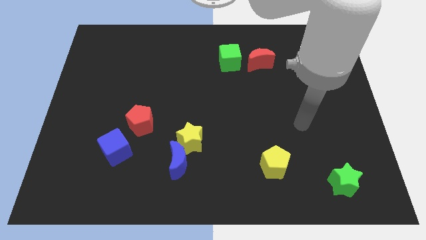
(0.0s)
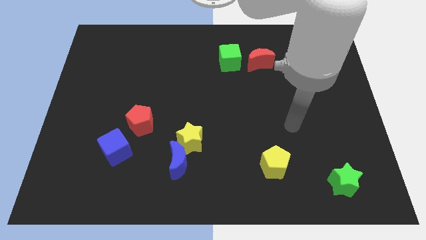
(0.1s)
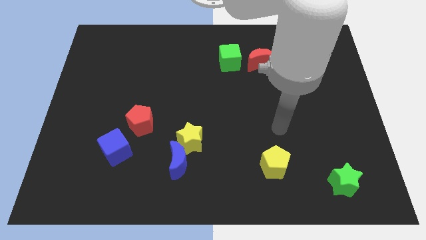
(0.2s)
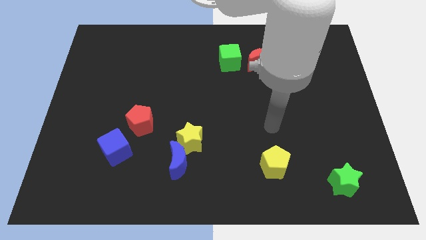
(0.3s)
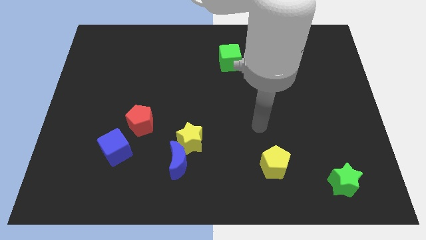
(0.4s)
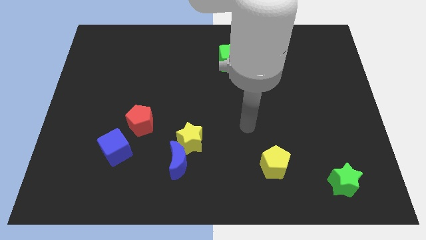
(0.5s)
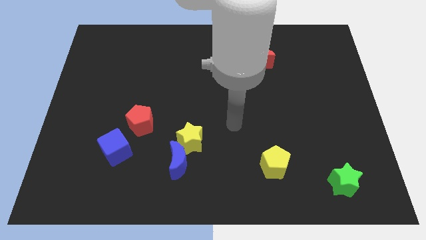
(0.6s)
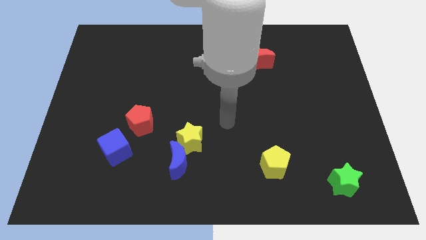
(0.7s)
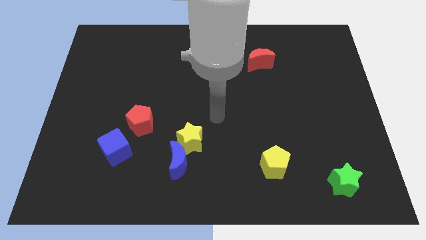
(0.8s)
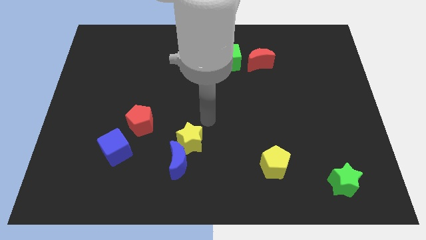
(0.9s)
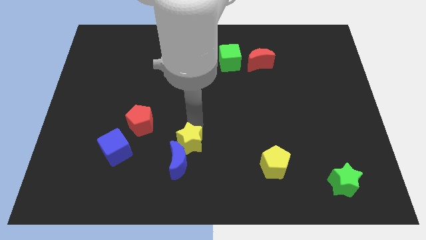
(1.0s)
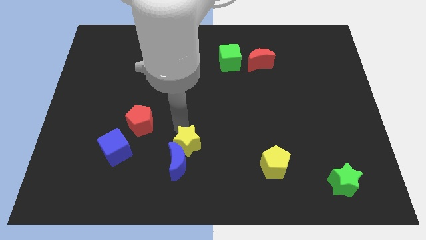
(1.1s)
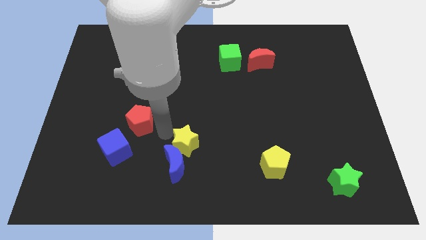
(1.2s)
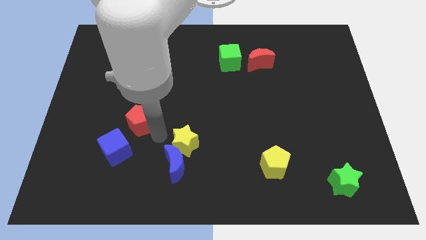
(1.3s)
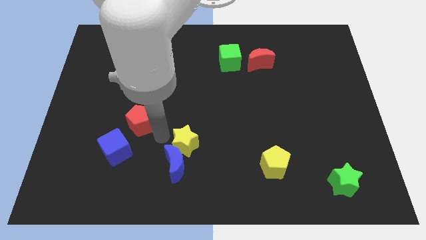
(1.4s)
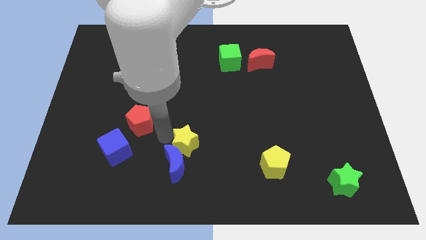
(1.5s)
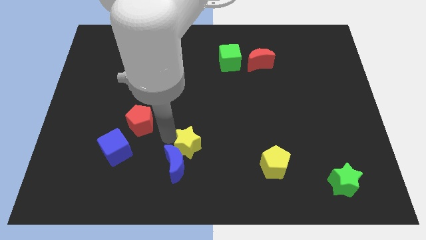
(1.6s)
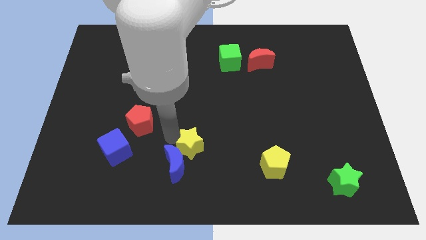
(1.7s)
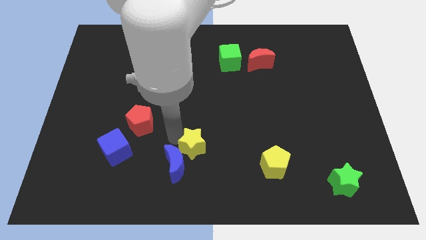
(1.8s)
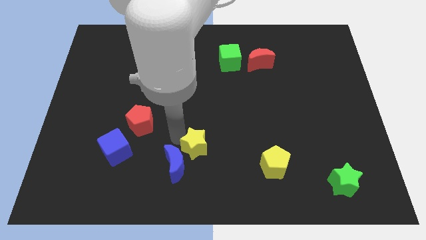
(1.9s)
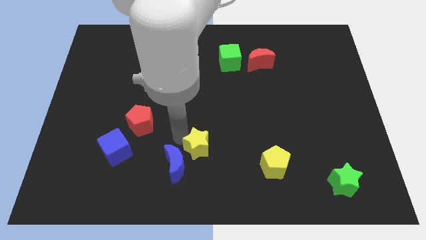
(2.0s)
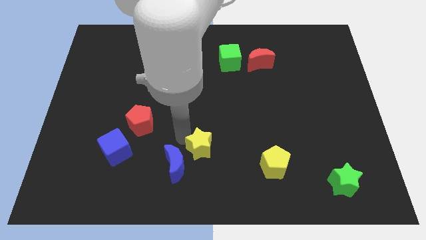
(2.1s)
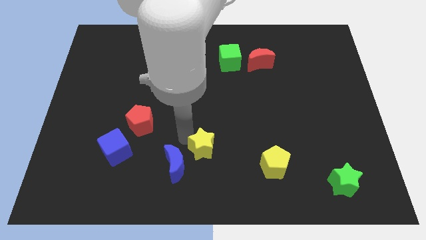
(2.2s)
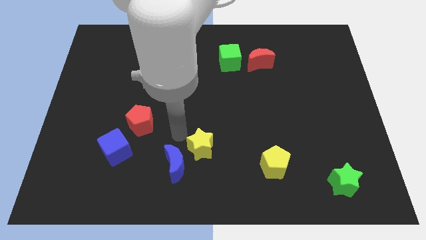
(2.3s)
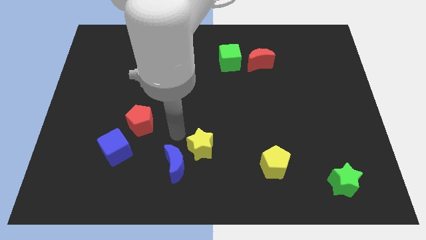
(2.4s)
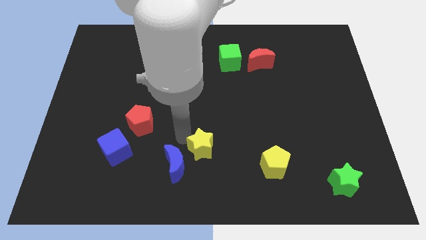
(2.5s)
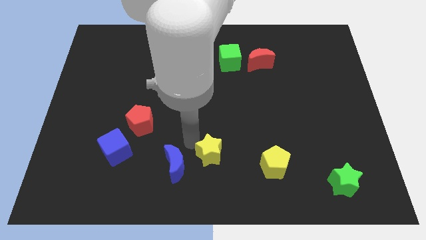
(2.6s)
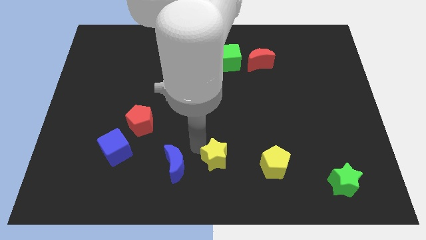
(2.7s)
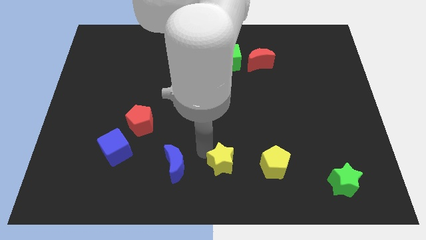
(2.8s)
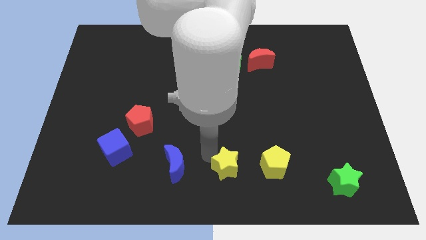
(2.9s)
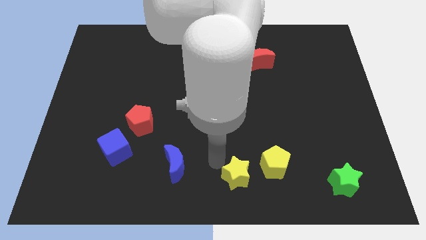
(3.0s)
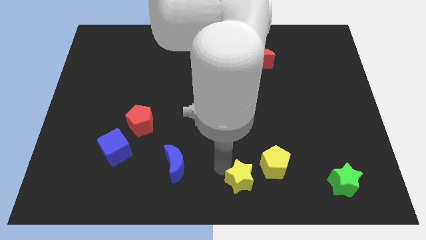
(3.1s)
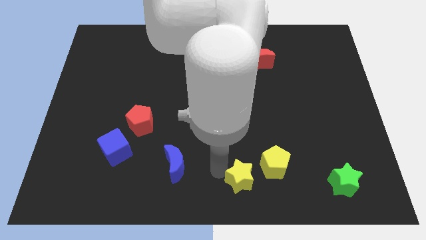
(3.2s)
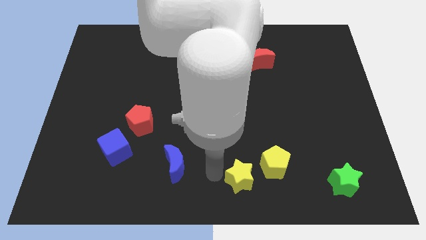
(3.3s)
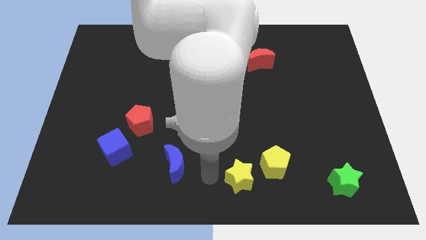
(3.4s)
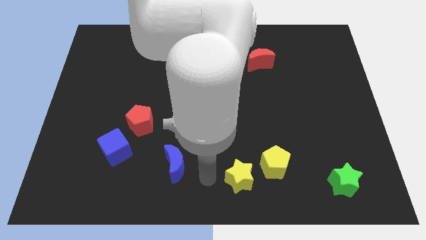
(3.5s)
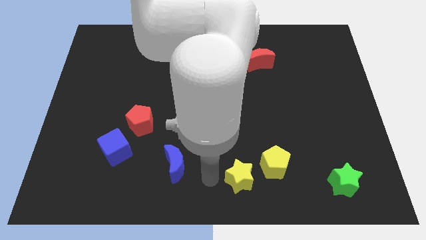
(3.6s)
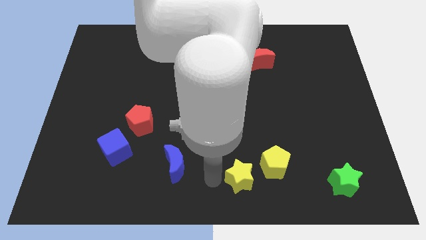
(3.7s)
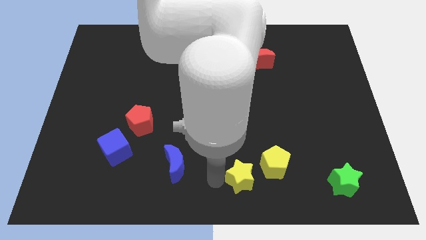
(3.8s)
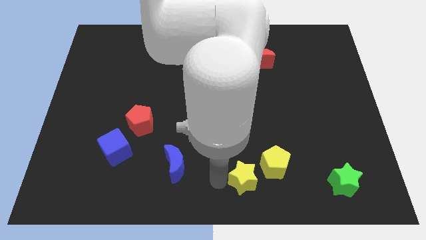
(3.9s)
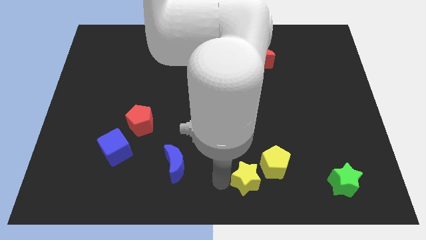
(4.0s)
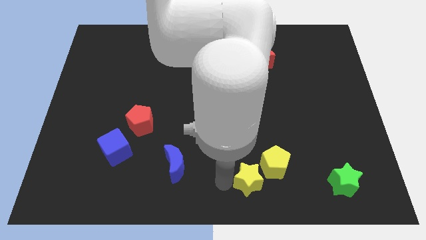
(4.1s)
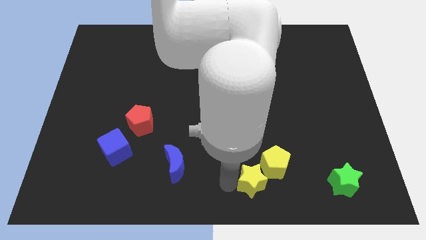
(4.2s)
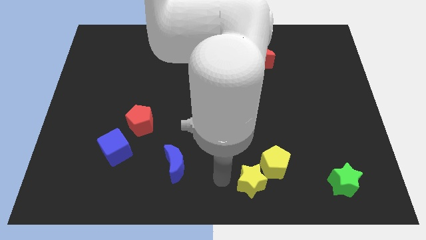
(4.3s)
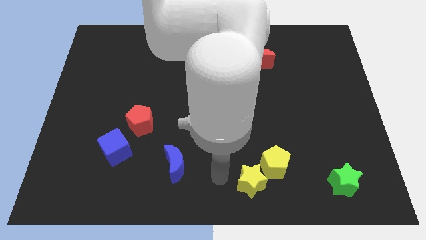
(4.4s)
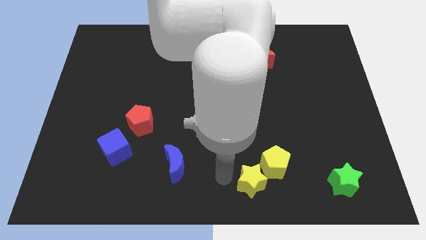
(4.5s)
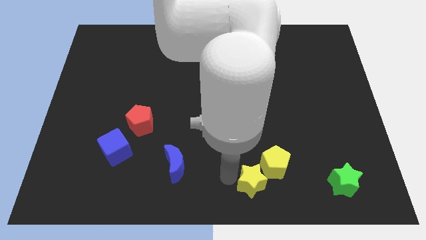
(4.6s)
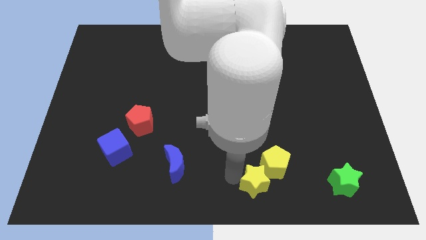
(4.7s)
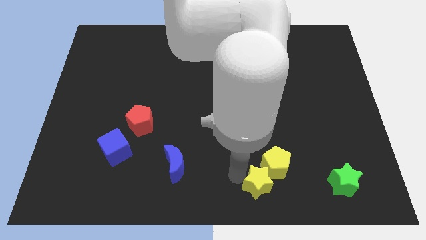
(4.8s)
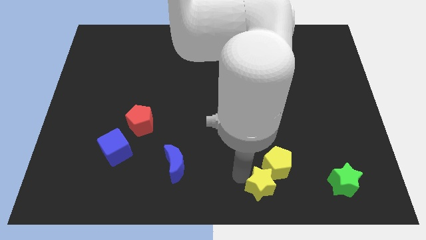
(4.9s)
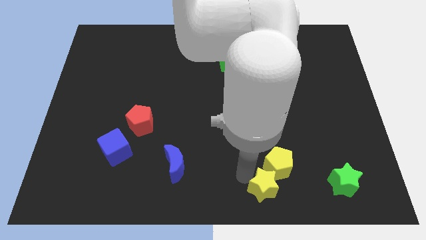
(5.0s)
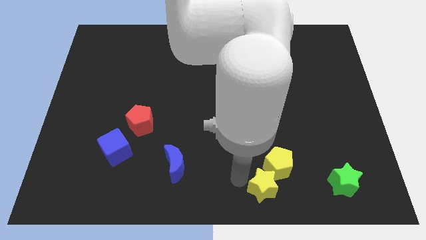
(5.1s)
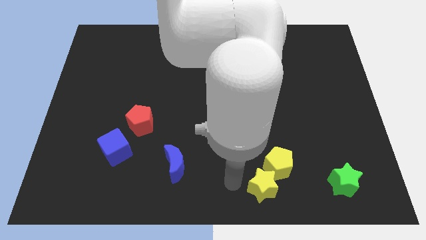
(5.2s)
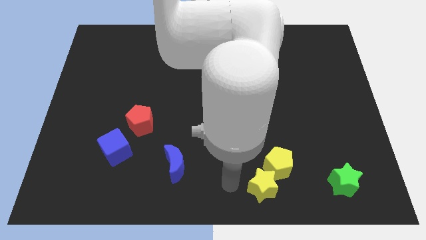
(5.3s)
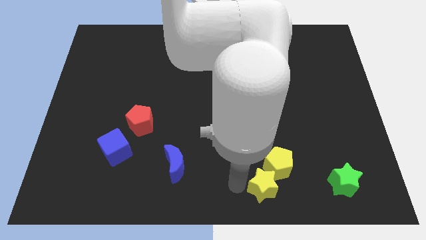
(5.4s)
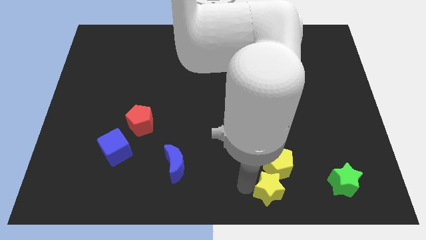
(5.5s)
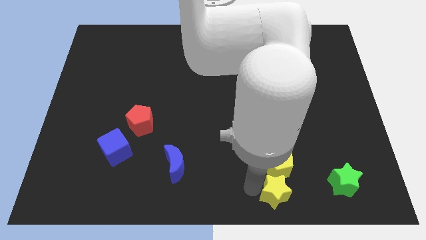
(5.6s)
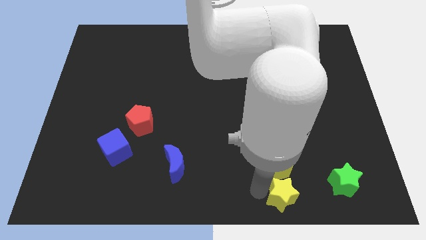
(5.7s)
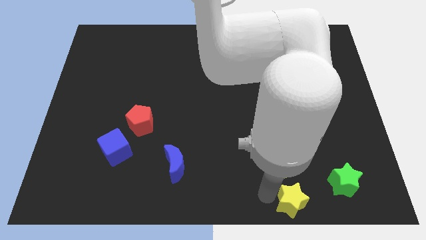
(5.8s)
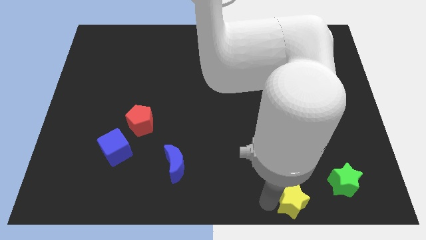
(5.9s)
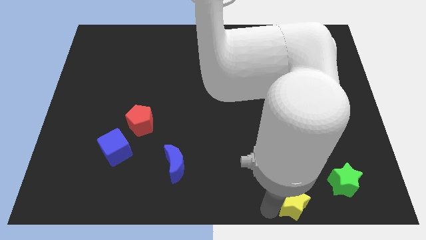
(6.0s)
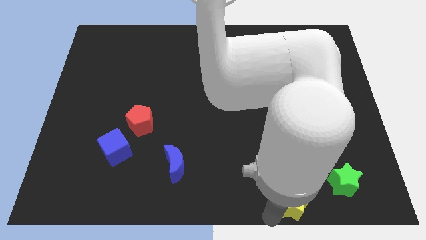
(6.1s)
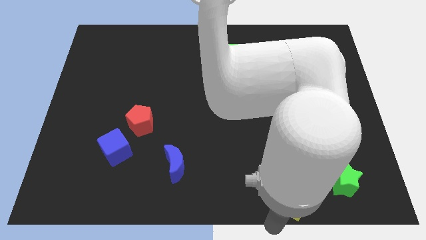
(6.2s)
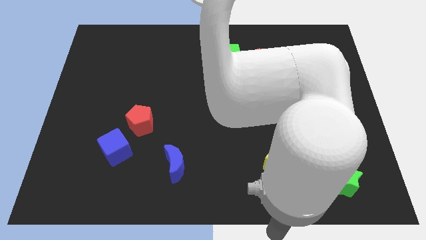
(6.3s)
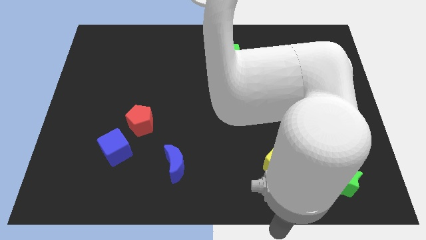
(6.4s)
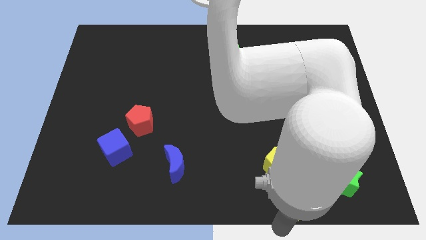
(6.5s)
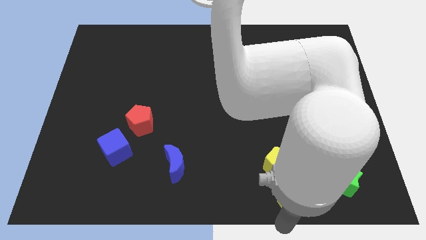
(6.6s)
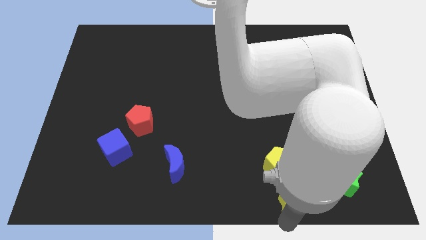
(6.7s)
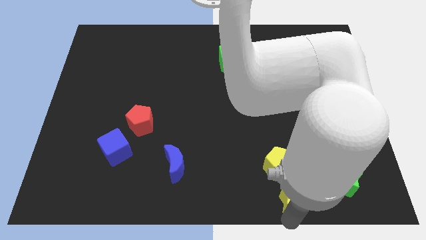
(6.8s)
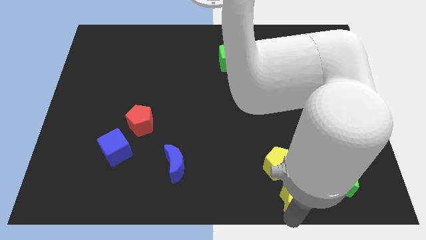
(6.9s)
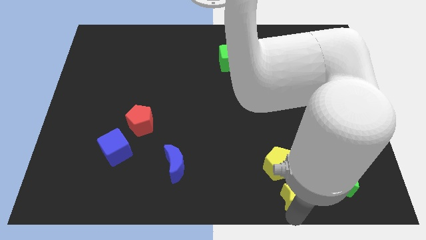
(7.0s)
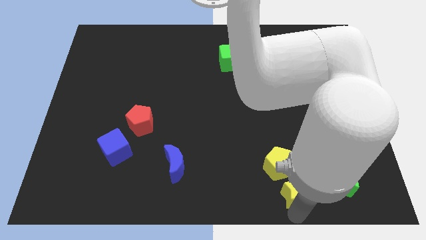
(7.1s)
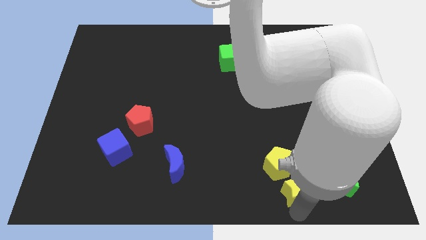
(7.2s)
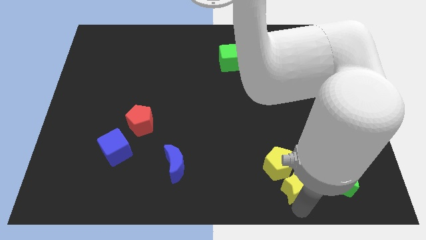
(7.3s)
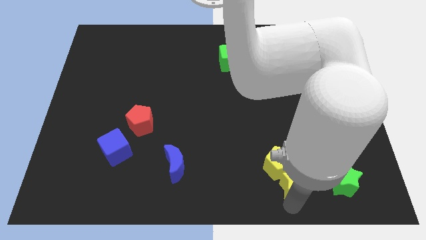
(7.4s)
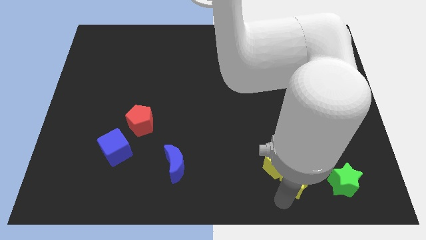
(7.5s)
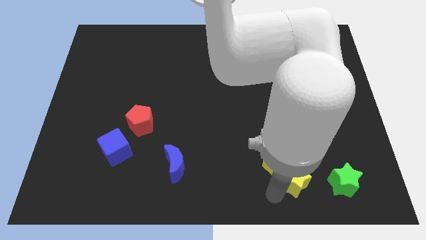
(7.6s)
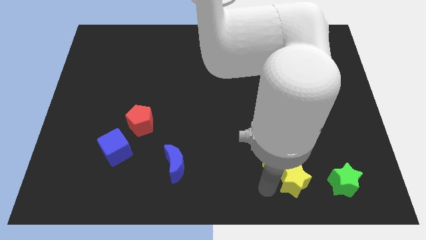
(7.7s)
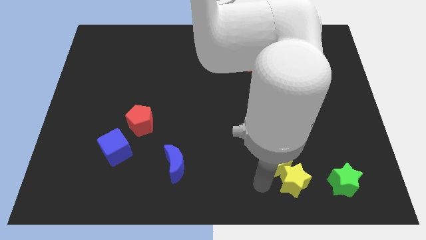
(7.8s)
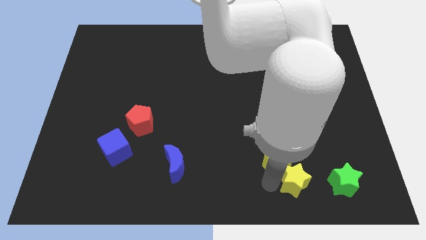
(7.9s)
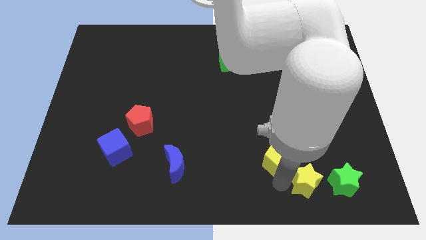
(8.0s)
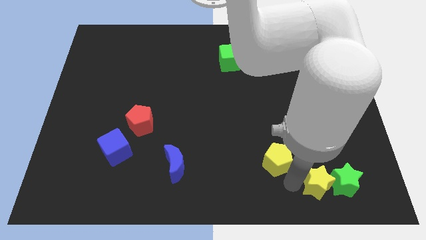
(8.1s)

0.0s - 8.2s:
move the yellow star close to the green star

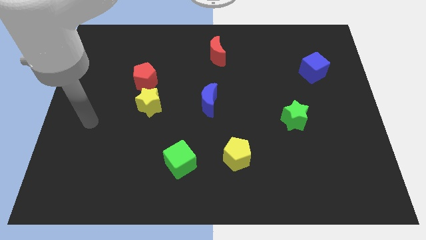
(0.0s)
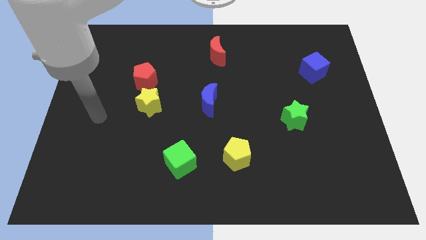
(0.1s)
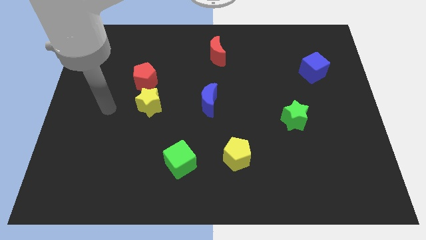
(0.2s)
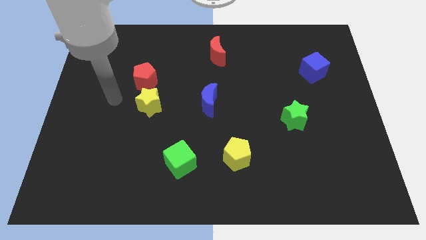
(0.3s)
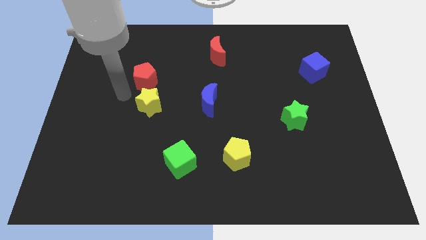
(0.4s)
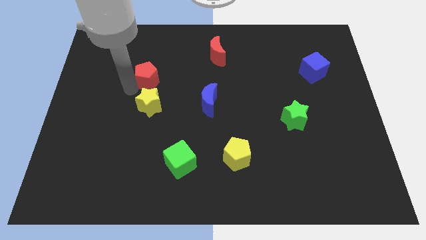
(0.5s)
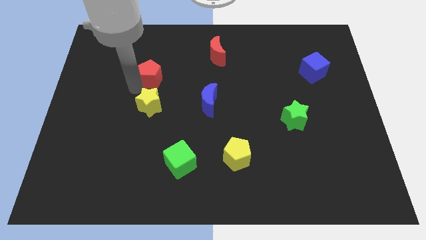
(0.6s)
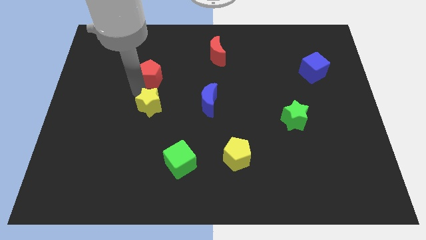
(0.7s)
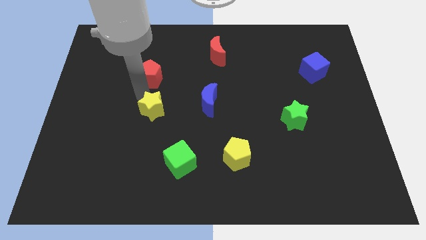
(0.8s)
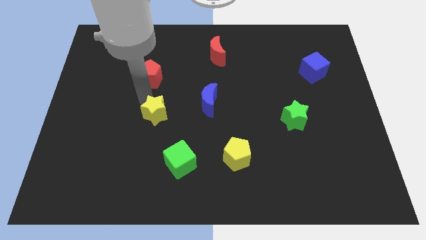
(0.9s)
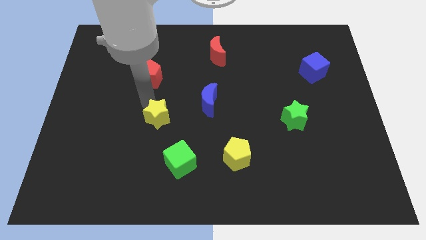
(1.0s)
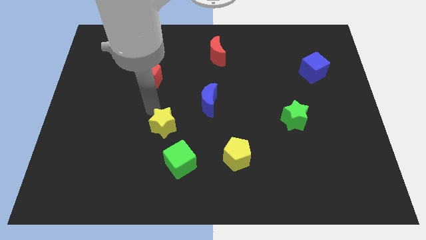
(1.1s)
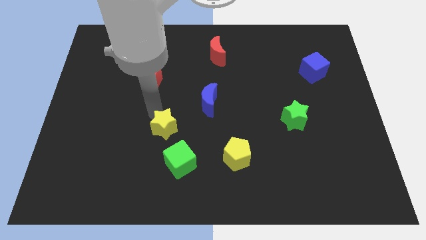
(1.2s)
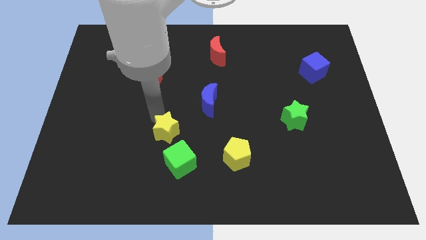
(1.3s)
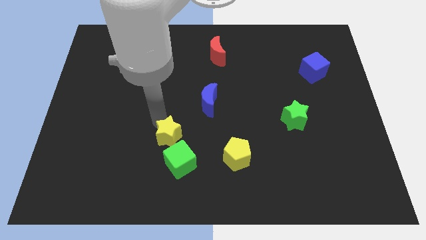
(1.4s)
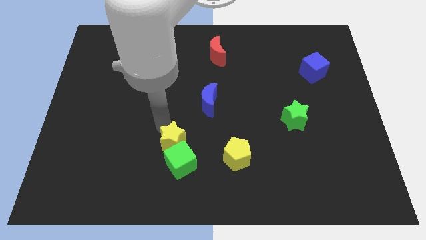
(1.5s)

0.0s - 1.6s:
put the yellow star to the green cube
